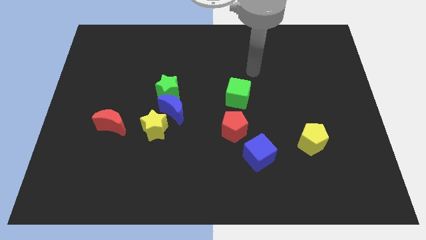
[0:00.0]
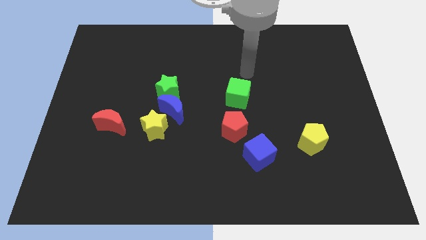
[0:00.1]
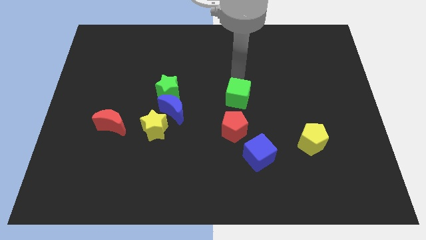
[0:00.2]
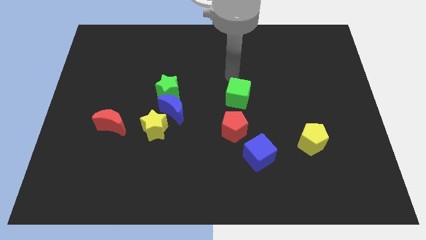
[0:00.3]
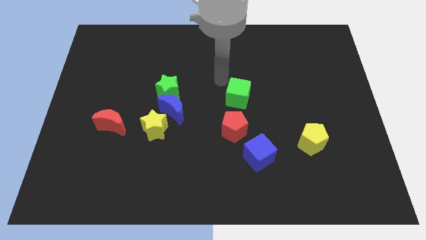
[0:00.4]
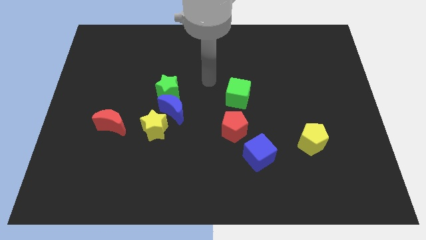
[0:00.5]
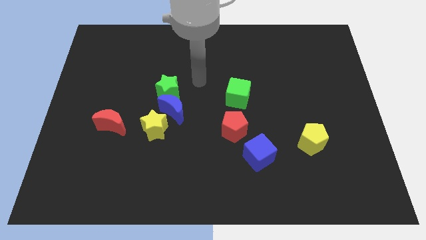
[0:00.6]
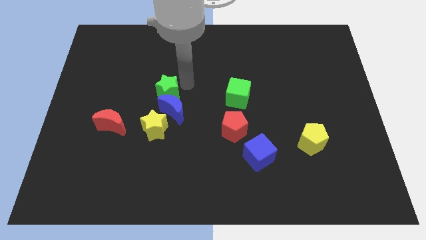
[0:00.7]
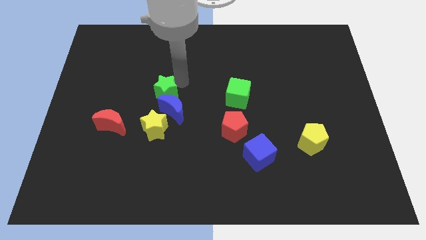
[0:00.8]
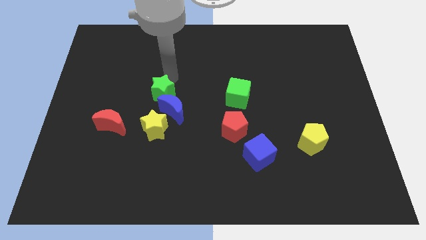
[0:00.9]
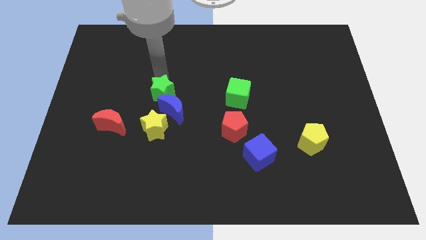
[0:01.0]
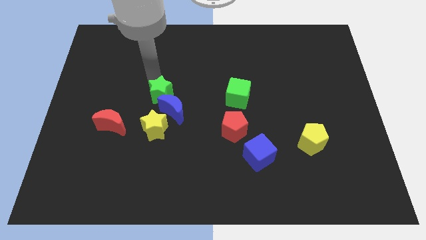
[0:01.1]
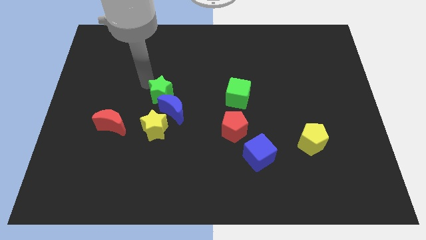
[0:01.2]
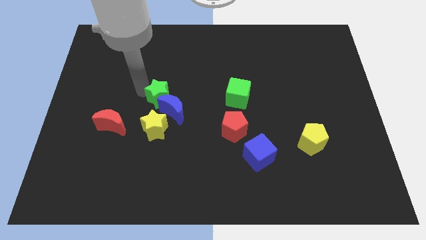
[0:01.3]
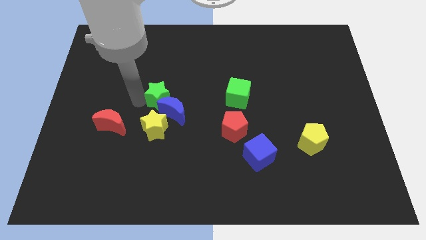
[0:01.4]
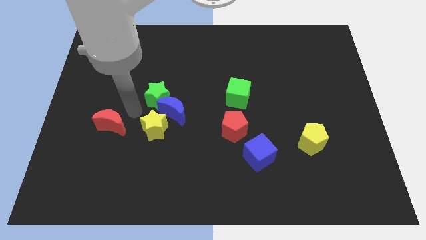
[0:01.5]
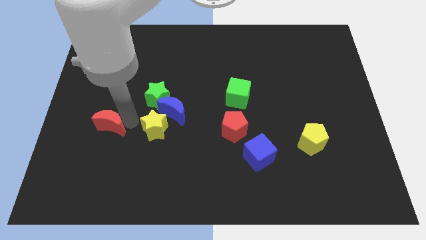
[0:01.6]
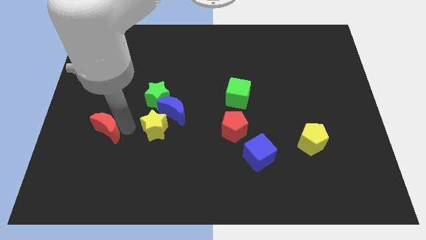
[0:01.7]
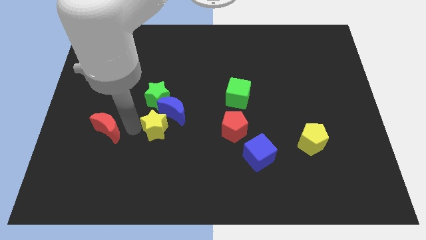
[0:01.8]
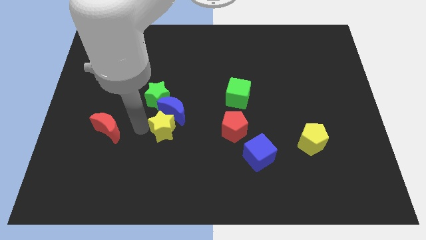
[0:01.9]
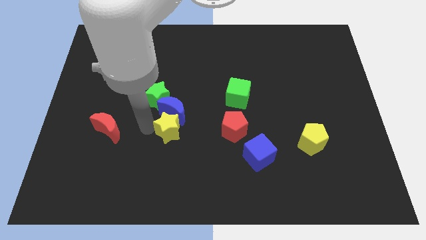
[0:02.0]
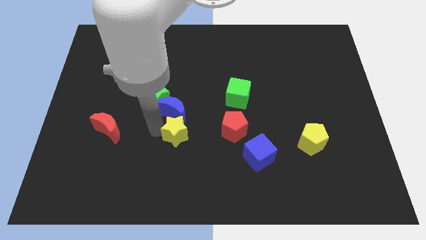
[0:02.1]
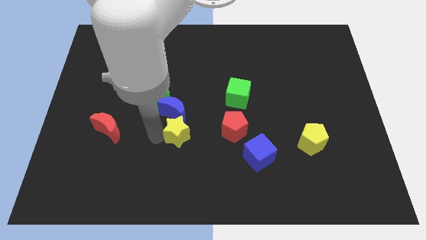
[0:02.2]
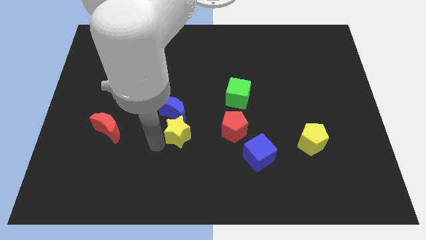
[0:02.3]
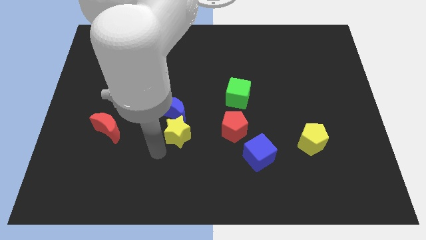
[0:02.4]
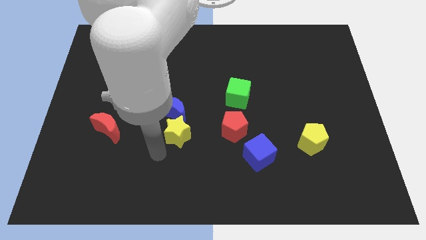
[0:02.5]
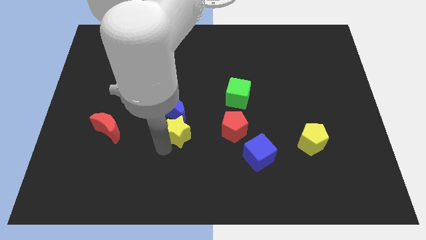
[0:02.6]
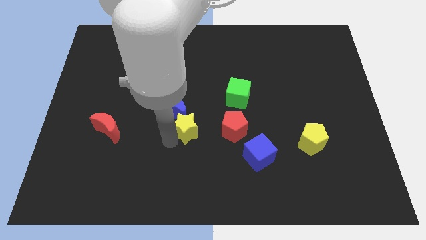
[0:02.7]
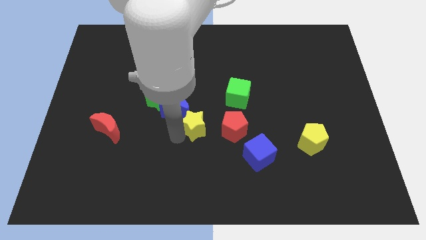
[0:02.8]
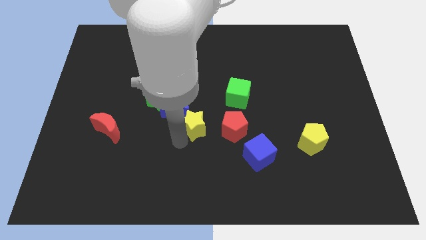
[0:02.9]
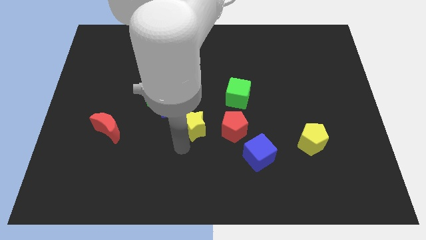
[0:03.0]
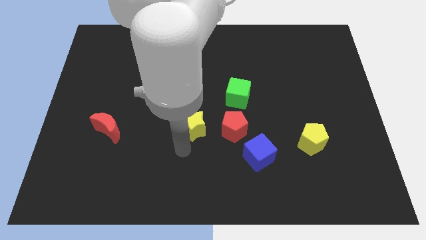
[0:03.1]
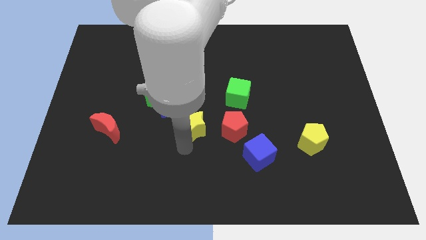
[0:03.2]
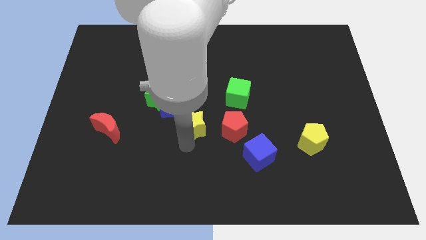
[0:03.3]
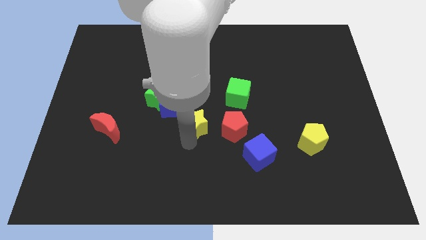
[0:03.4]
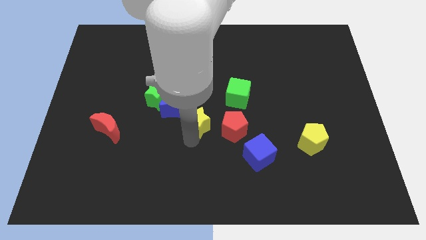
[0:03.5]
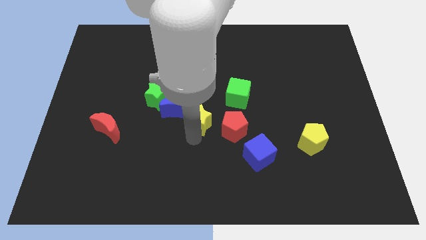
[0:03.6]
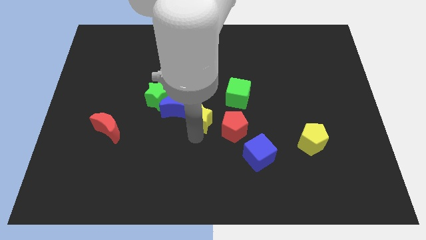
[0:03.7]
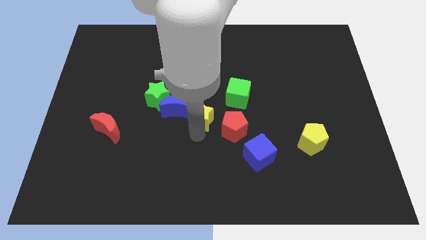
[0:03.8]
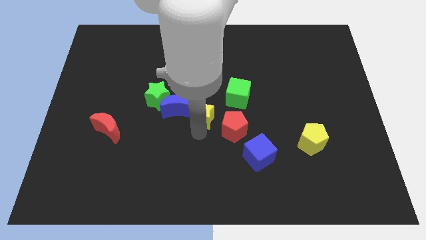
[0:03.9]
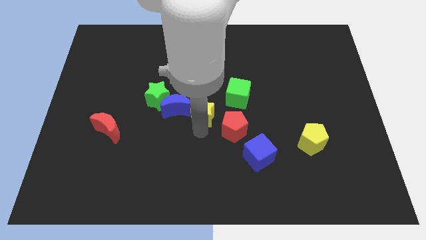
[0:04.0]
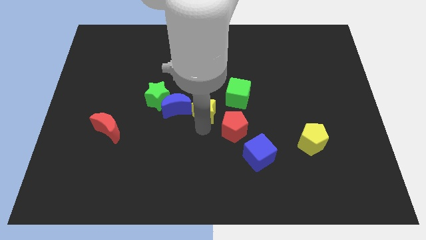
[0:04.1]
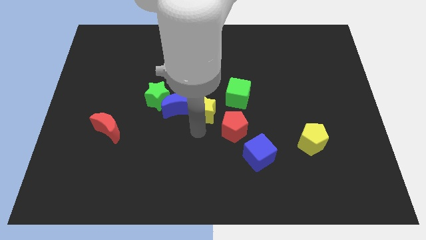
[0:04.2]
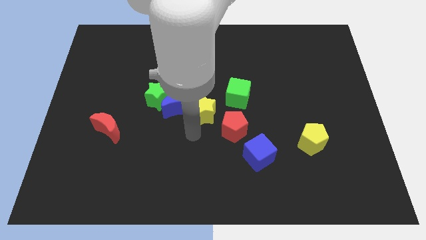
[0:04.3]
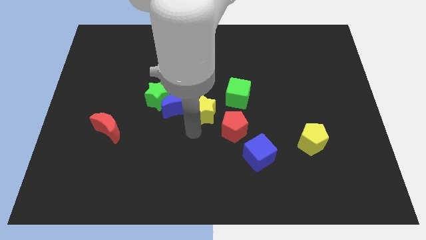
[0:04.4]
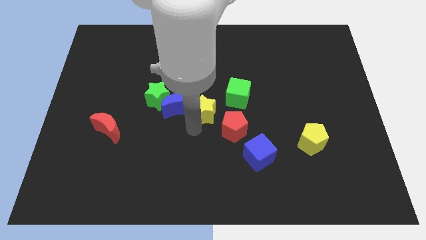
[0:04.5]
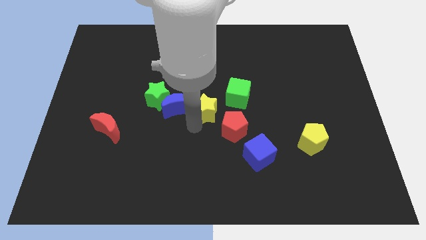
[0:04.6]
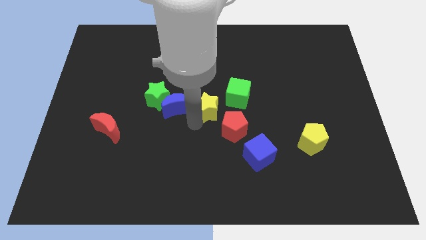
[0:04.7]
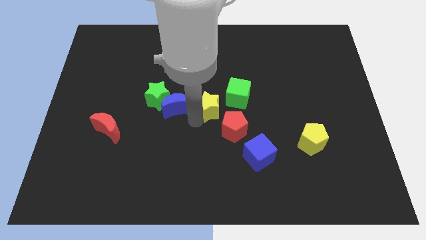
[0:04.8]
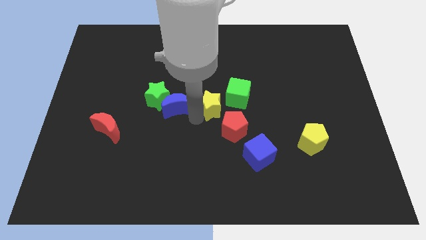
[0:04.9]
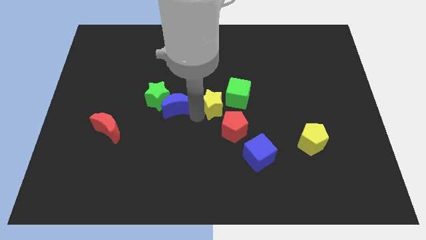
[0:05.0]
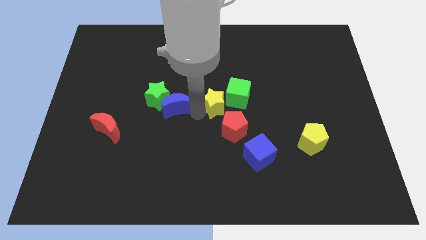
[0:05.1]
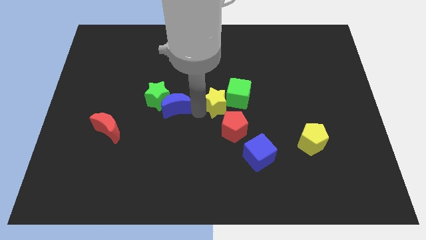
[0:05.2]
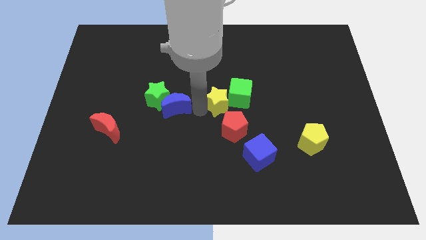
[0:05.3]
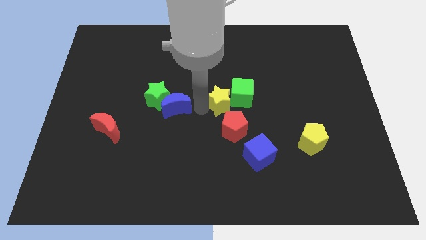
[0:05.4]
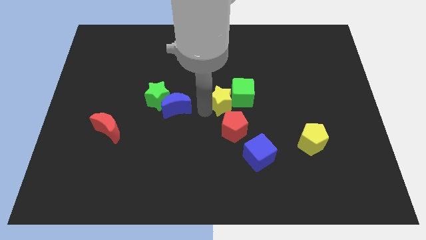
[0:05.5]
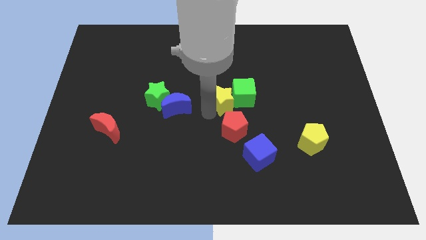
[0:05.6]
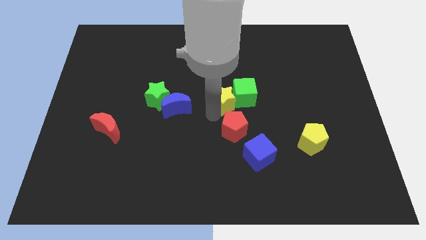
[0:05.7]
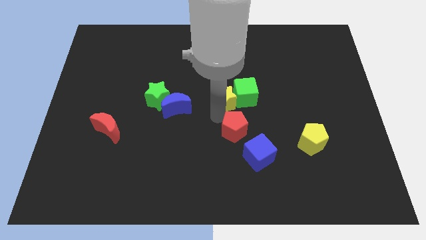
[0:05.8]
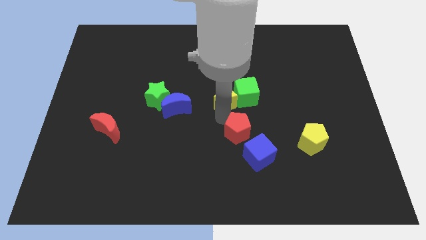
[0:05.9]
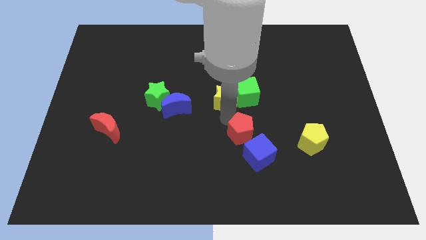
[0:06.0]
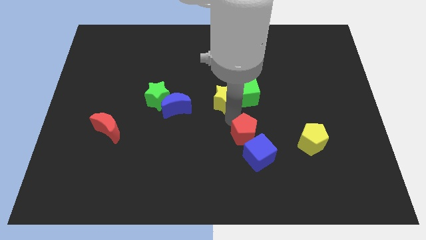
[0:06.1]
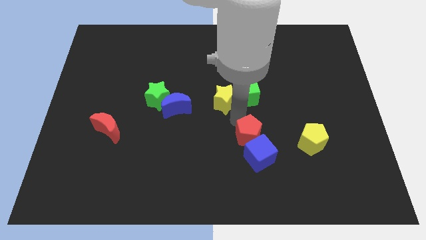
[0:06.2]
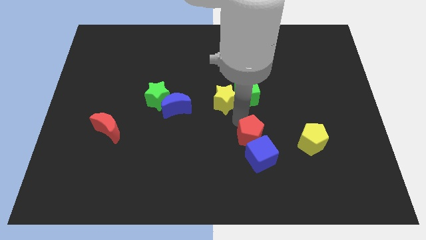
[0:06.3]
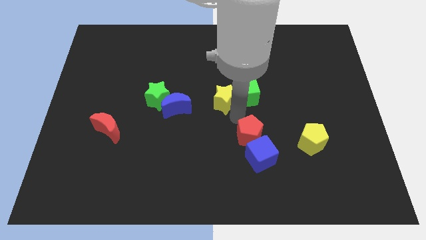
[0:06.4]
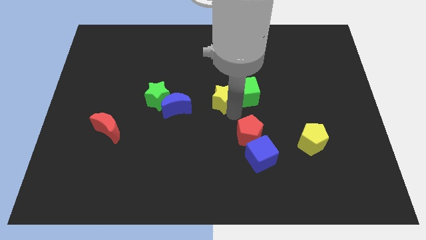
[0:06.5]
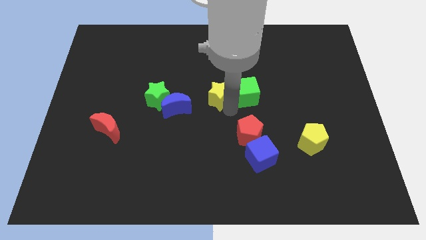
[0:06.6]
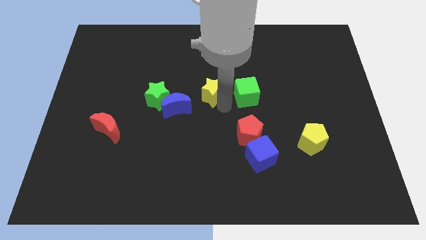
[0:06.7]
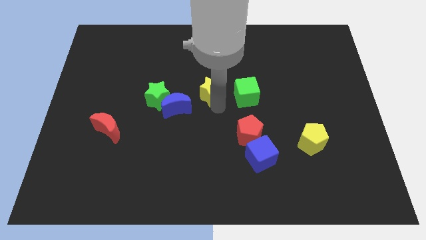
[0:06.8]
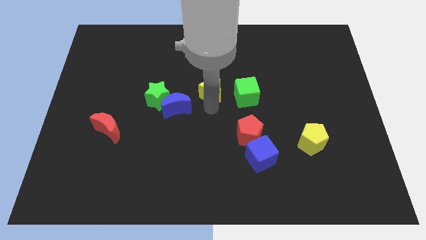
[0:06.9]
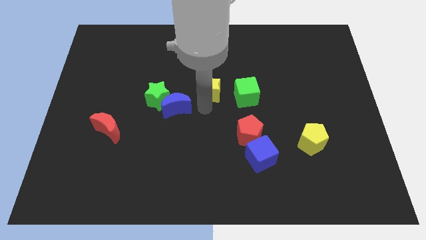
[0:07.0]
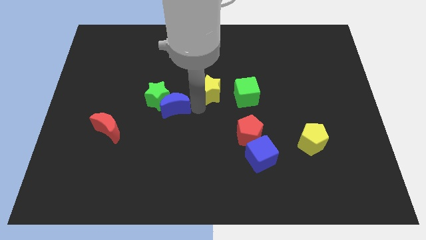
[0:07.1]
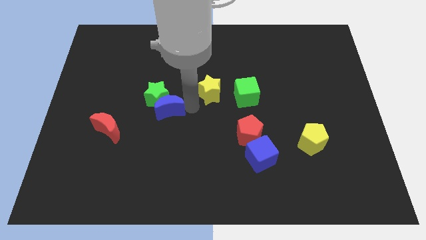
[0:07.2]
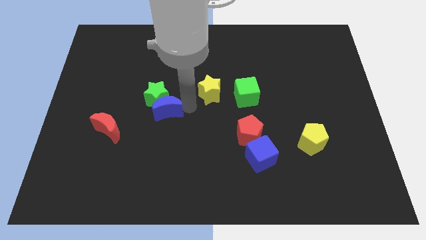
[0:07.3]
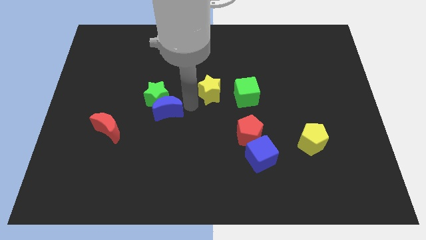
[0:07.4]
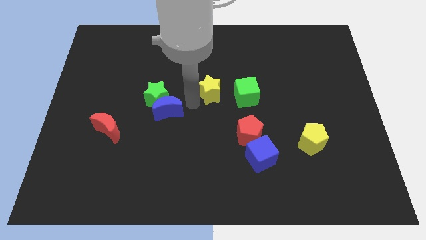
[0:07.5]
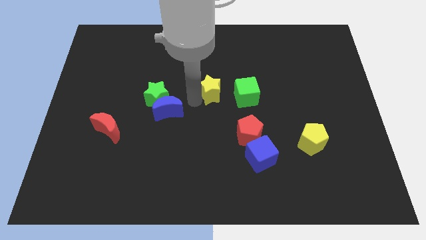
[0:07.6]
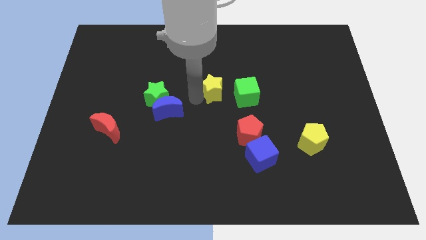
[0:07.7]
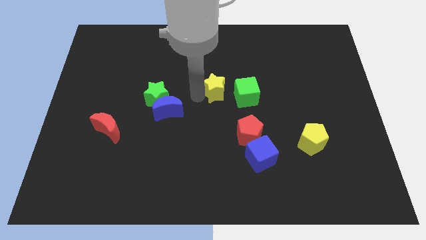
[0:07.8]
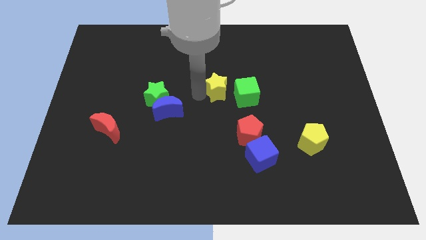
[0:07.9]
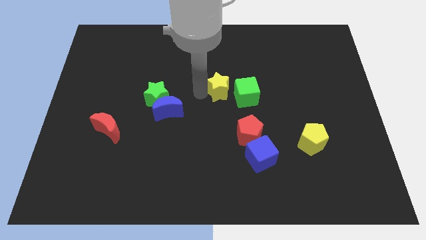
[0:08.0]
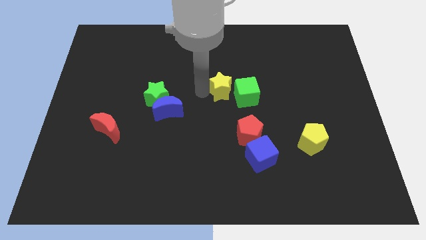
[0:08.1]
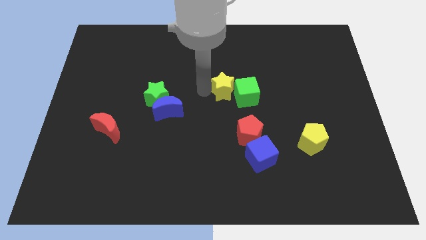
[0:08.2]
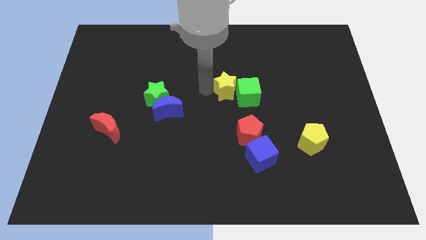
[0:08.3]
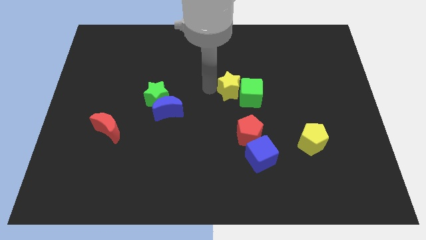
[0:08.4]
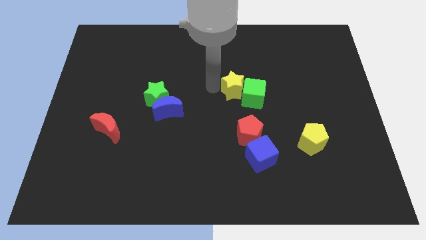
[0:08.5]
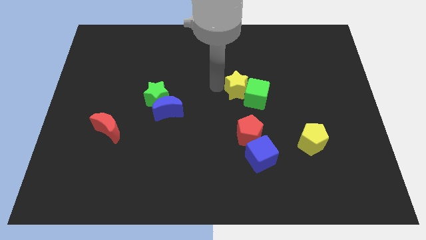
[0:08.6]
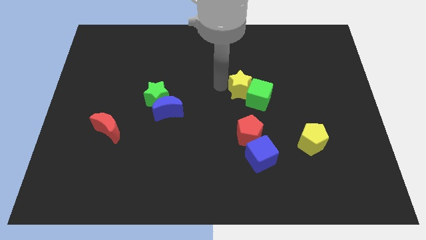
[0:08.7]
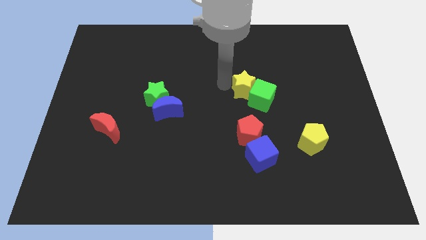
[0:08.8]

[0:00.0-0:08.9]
move the yellow star to the top side of the green cube
